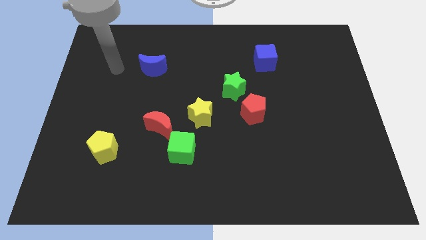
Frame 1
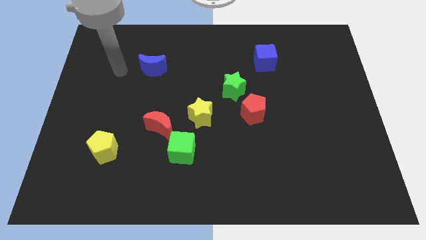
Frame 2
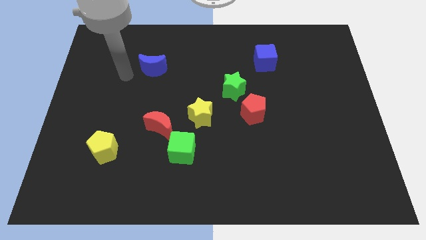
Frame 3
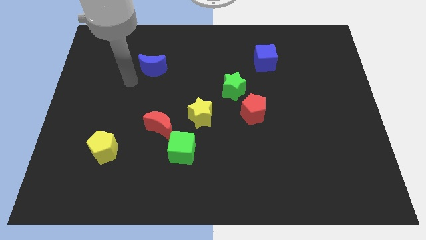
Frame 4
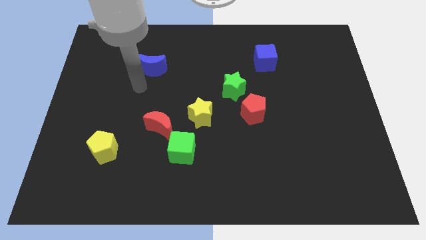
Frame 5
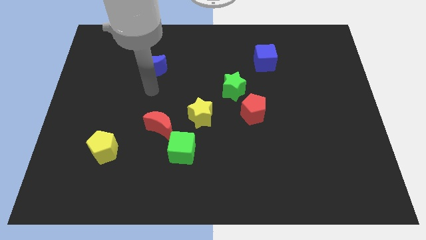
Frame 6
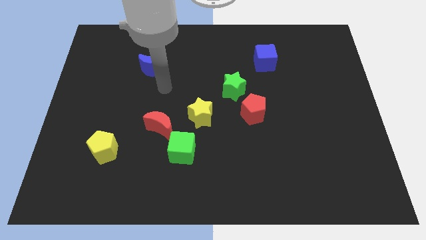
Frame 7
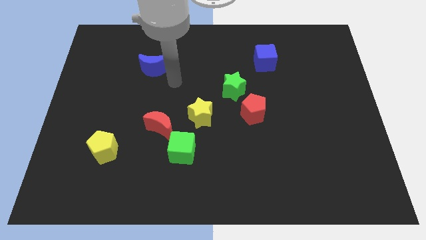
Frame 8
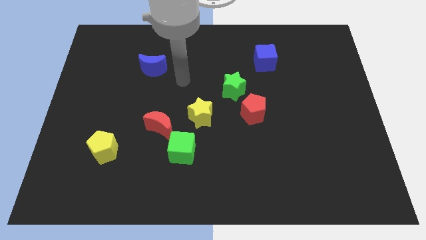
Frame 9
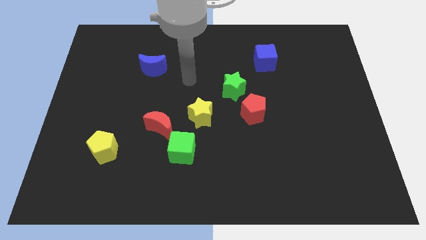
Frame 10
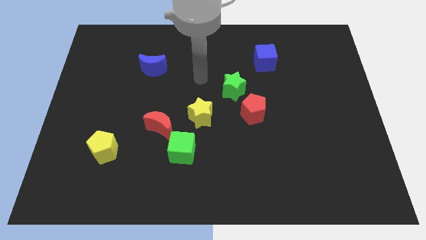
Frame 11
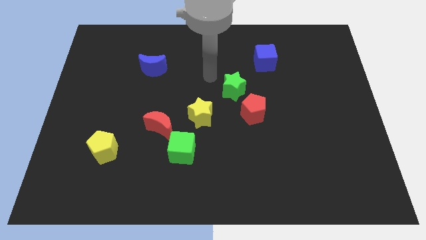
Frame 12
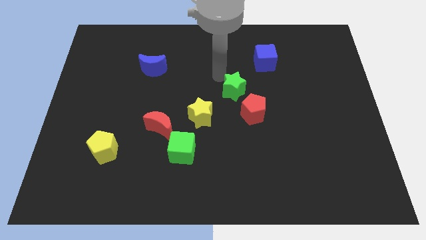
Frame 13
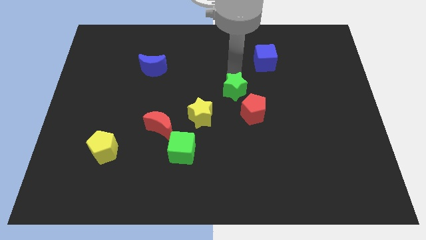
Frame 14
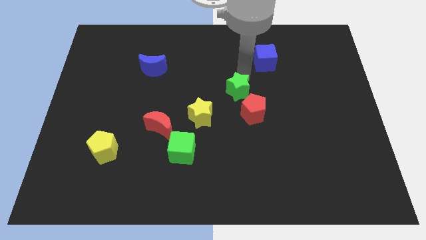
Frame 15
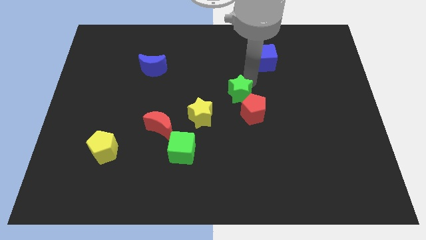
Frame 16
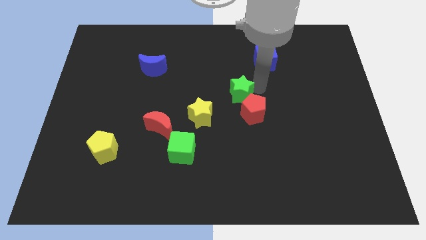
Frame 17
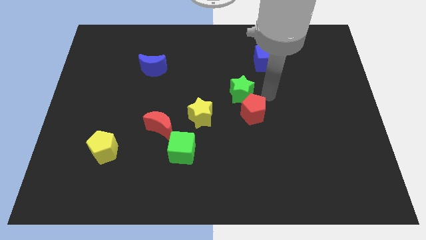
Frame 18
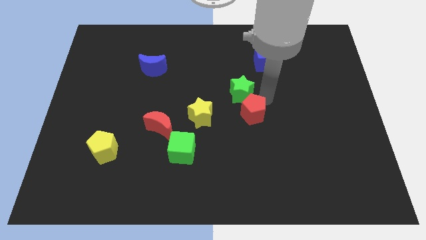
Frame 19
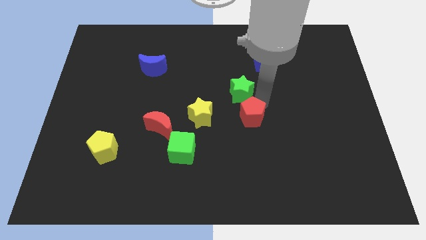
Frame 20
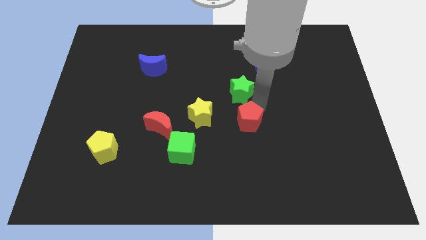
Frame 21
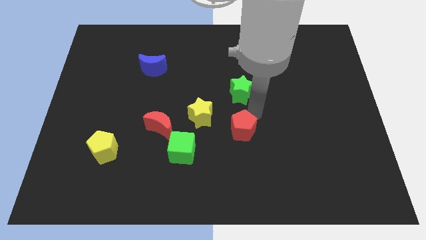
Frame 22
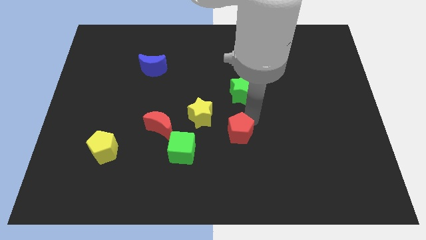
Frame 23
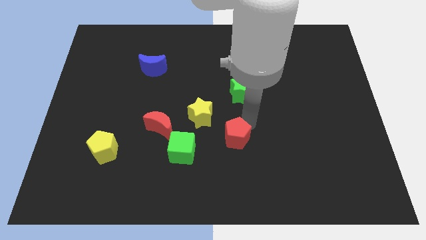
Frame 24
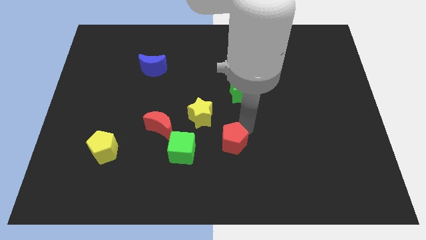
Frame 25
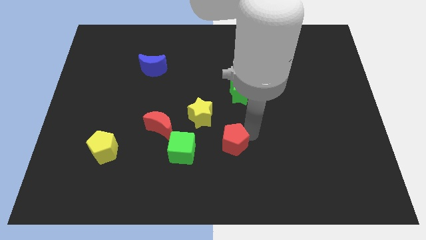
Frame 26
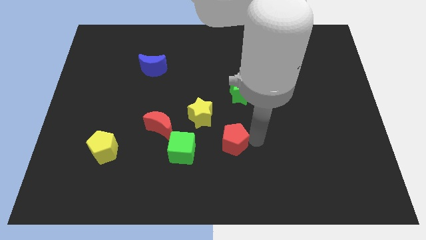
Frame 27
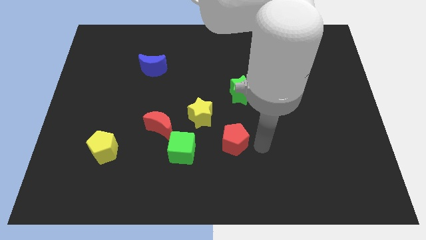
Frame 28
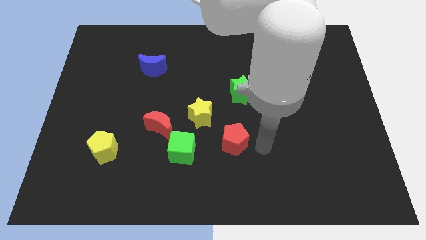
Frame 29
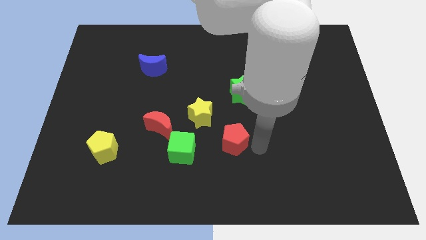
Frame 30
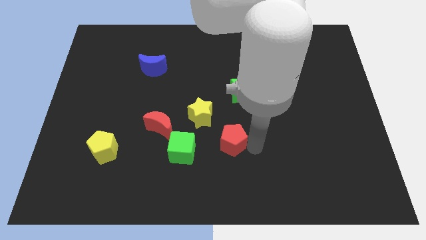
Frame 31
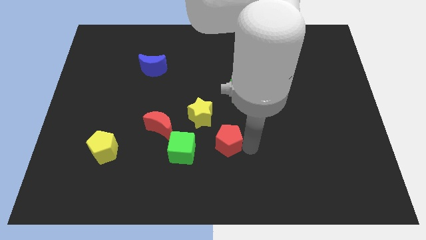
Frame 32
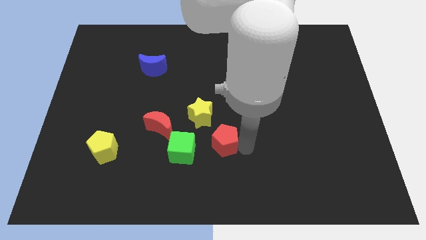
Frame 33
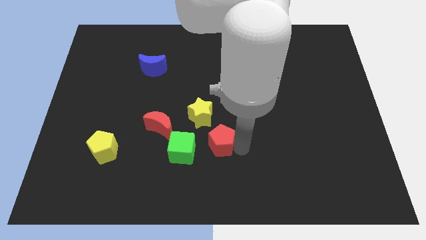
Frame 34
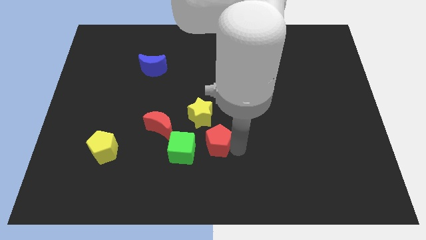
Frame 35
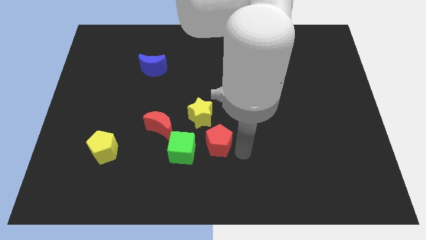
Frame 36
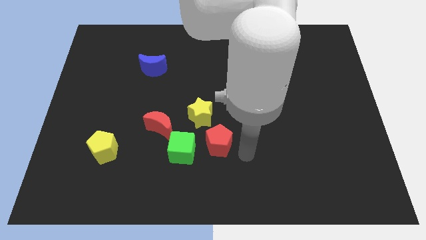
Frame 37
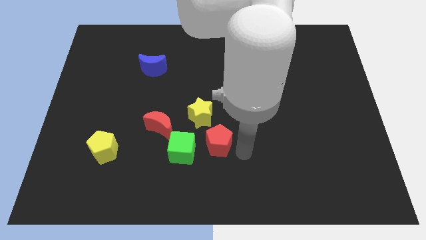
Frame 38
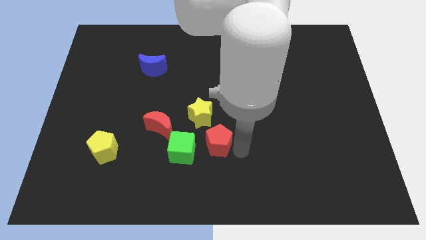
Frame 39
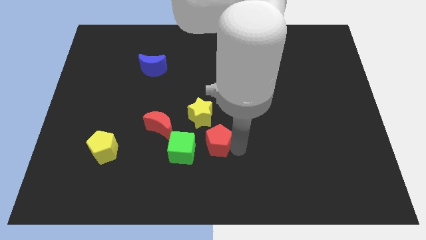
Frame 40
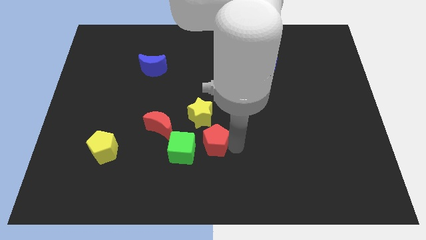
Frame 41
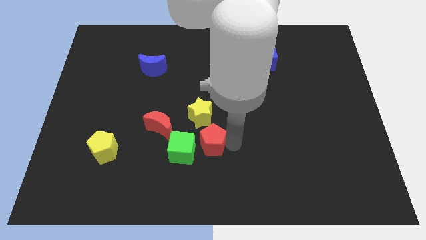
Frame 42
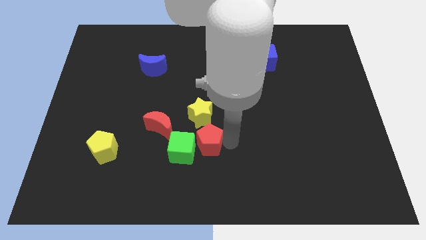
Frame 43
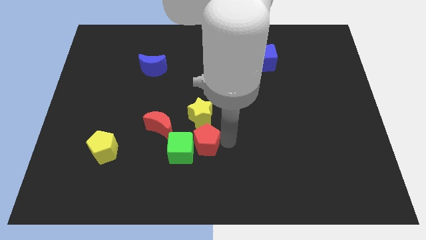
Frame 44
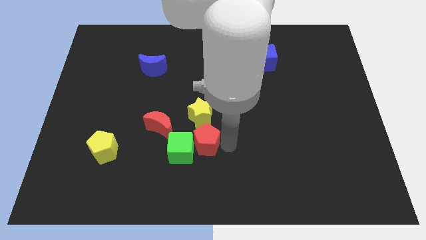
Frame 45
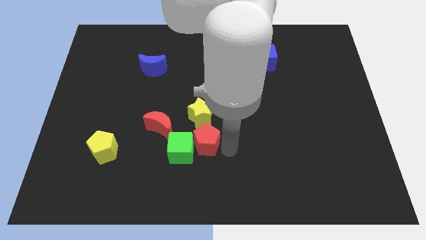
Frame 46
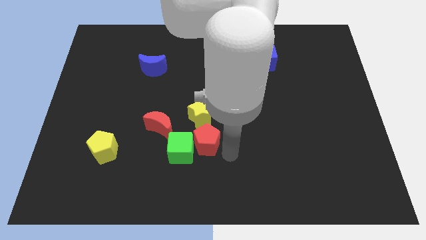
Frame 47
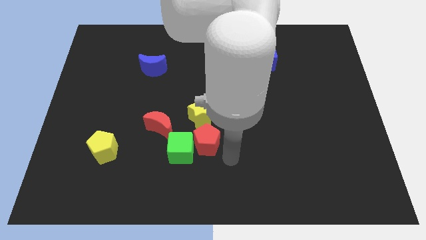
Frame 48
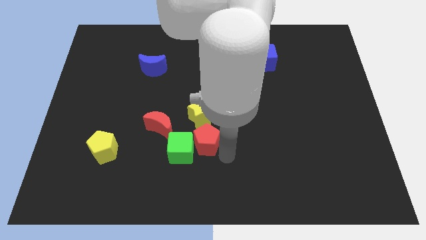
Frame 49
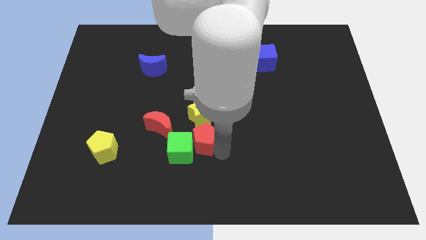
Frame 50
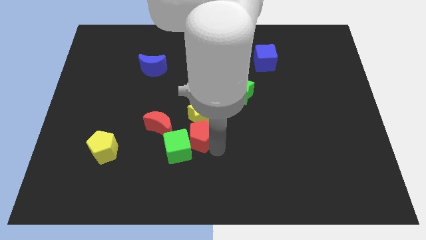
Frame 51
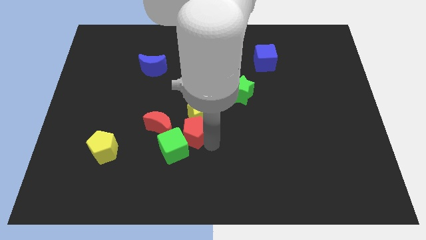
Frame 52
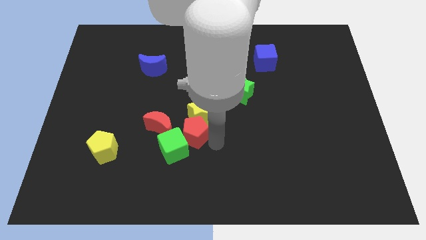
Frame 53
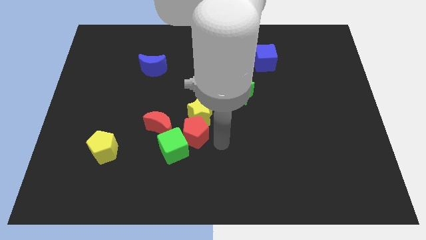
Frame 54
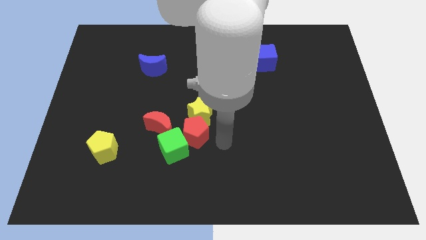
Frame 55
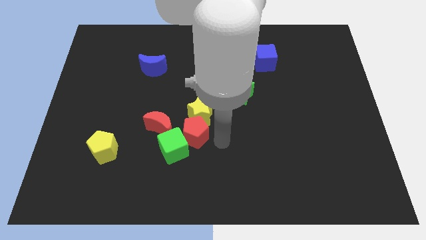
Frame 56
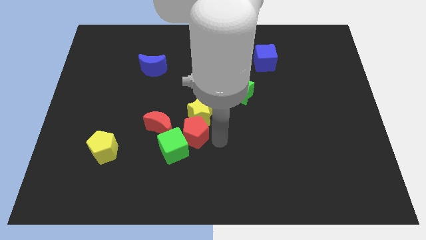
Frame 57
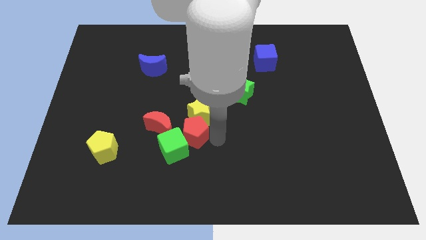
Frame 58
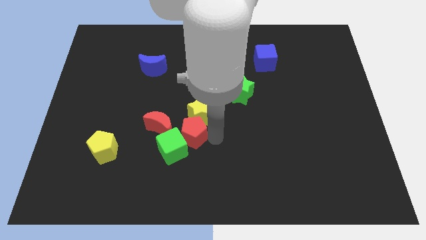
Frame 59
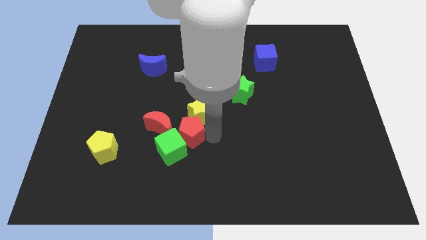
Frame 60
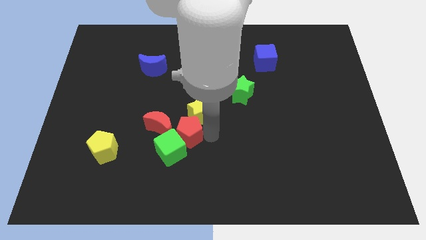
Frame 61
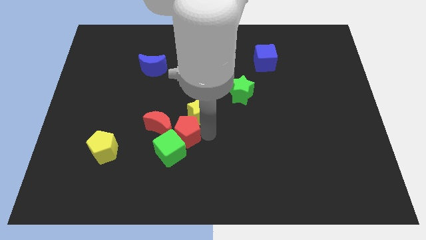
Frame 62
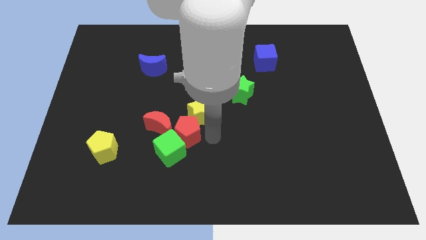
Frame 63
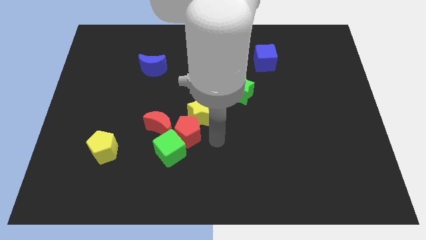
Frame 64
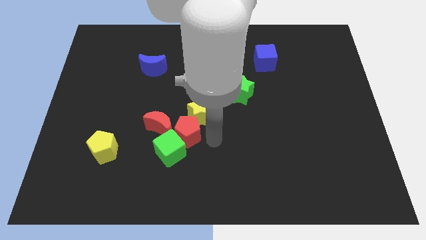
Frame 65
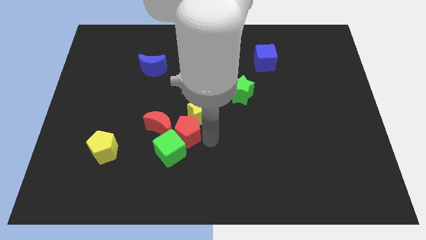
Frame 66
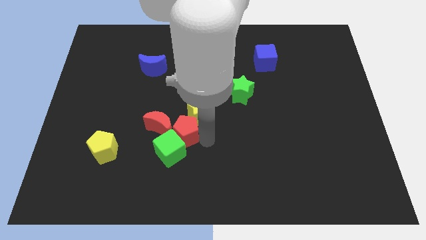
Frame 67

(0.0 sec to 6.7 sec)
push the red pentagon close to the red moon
